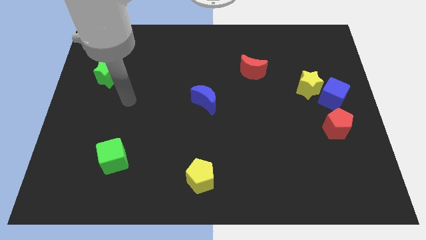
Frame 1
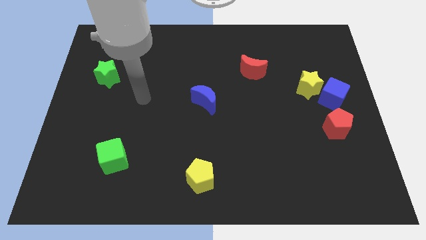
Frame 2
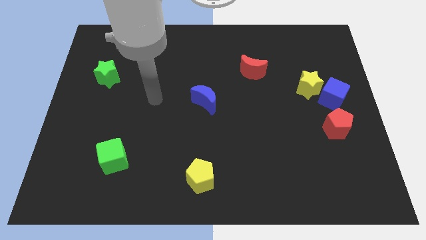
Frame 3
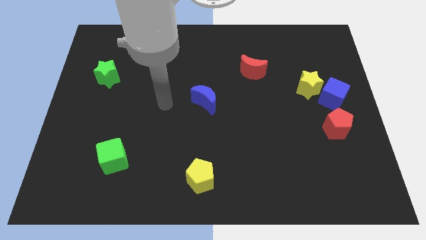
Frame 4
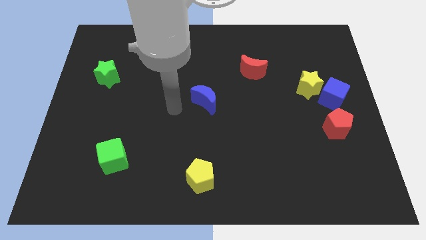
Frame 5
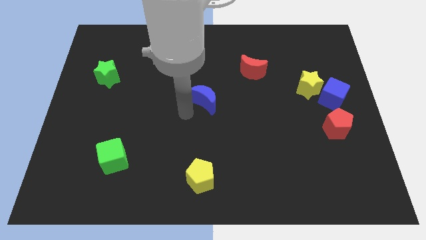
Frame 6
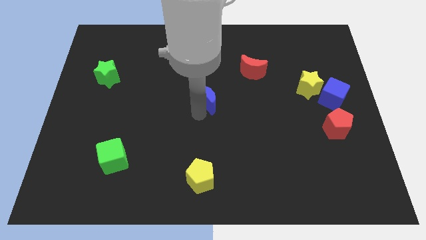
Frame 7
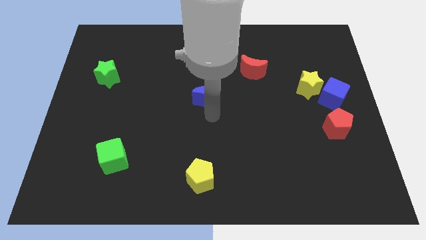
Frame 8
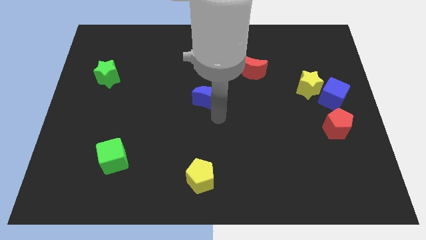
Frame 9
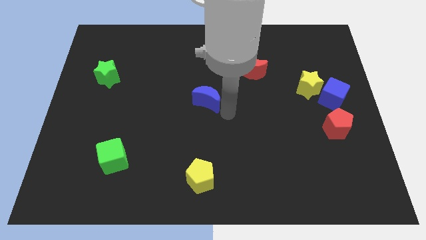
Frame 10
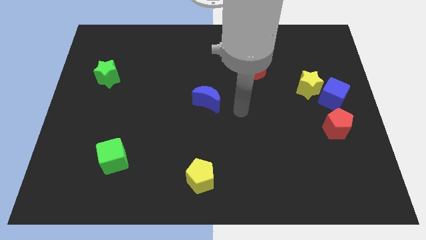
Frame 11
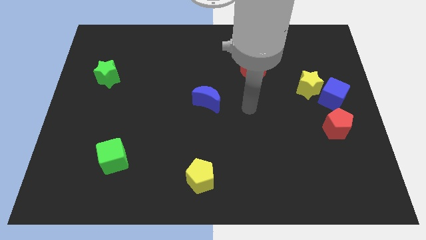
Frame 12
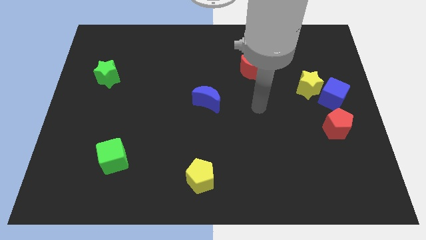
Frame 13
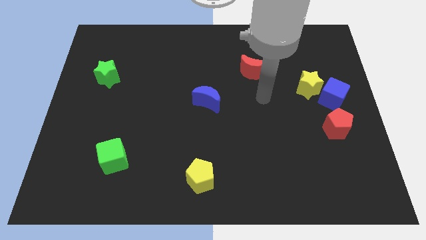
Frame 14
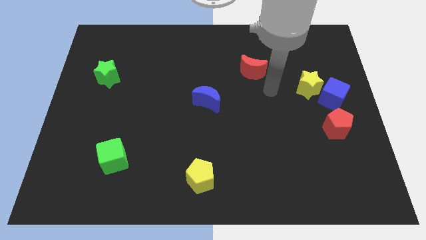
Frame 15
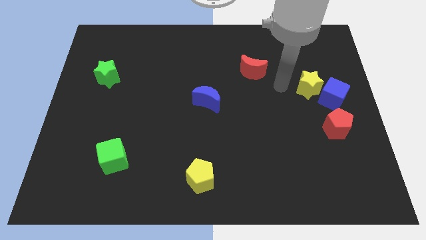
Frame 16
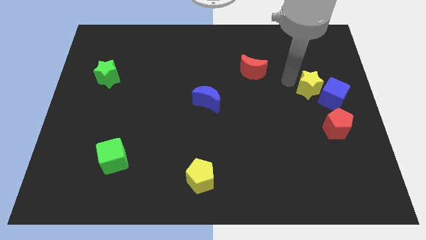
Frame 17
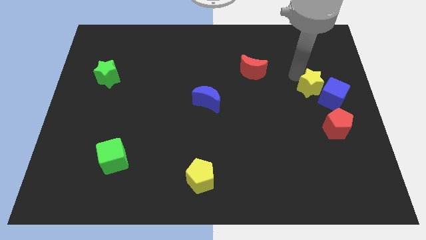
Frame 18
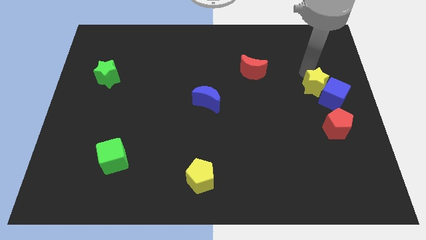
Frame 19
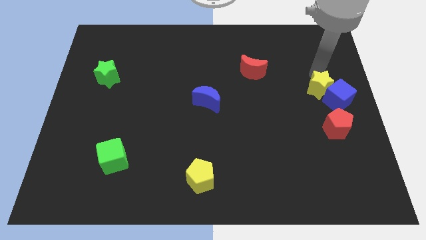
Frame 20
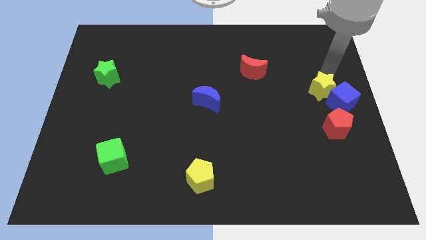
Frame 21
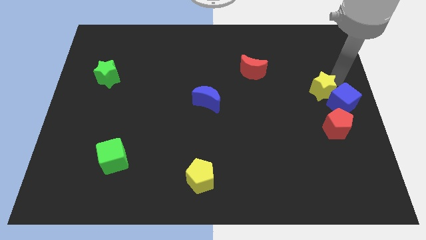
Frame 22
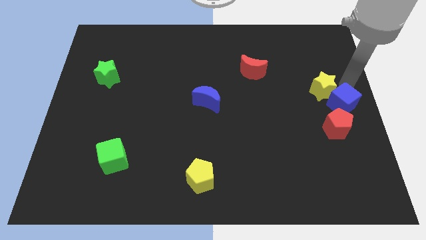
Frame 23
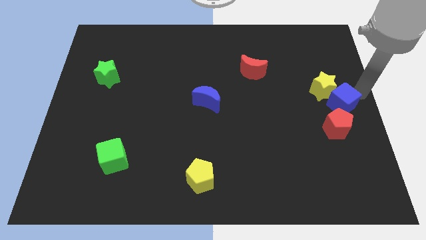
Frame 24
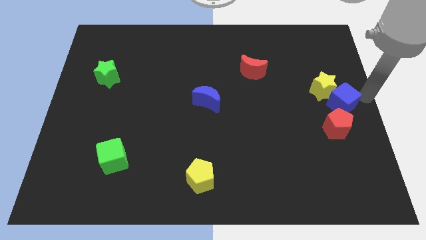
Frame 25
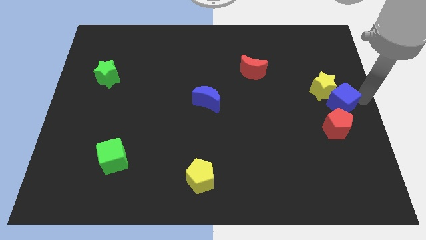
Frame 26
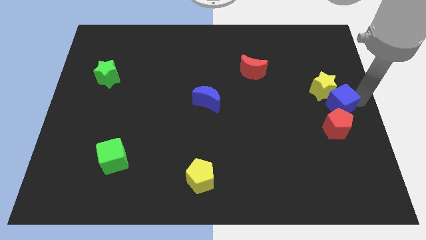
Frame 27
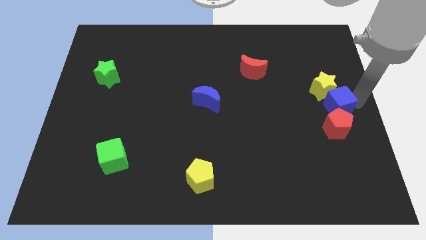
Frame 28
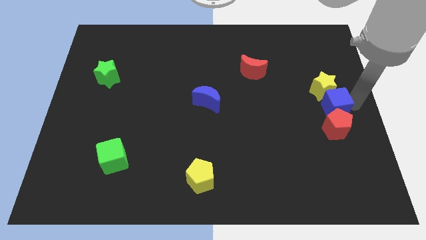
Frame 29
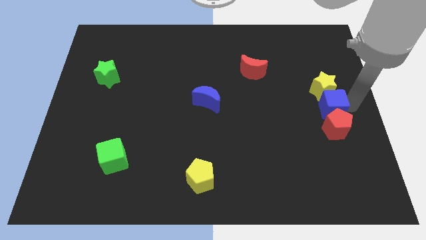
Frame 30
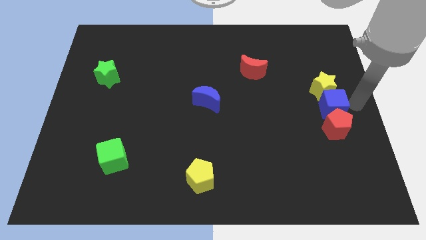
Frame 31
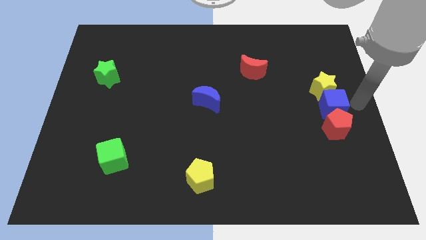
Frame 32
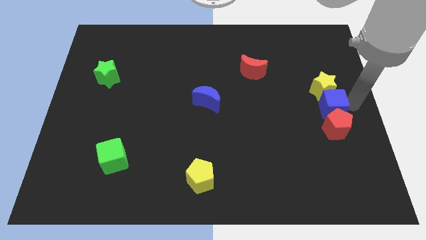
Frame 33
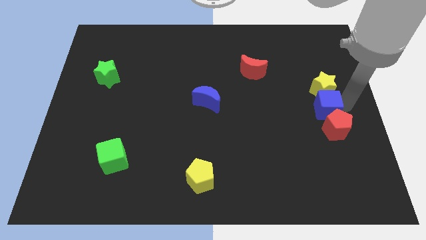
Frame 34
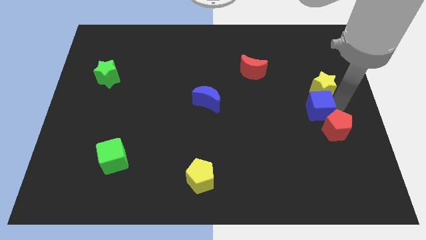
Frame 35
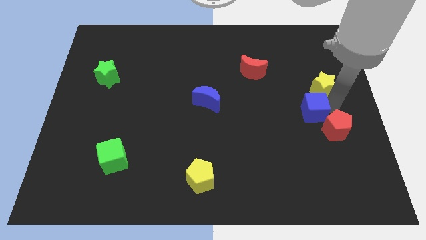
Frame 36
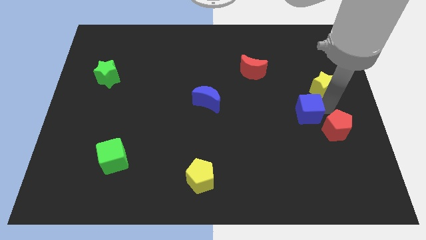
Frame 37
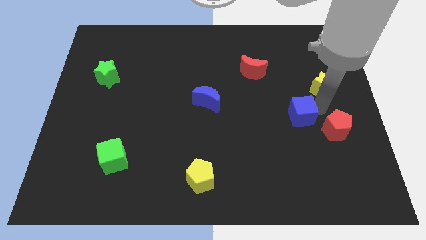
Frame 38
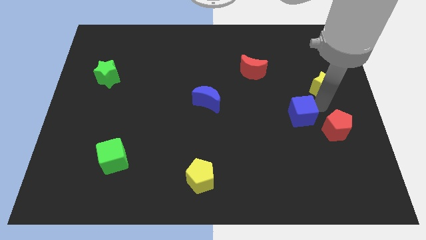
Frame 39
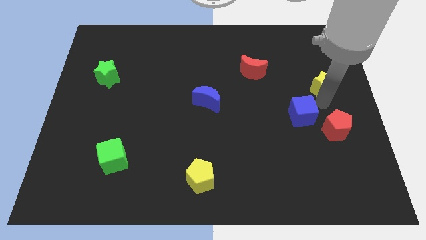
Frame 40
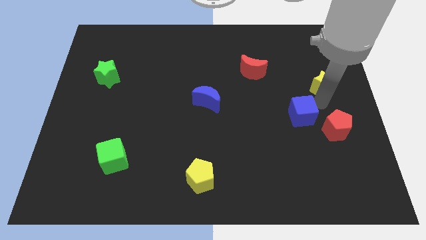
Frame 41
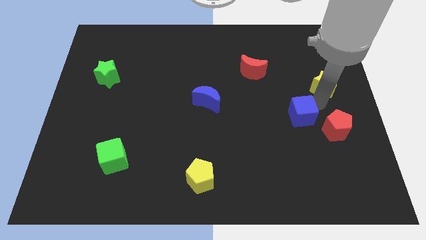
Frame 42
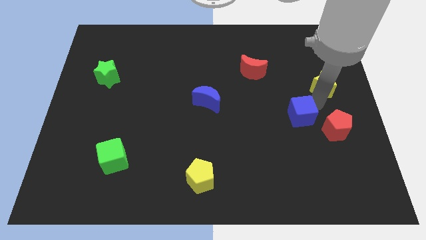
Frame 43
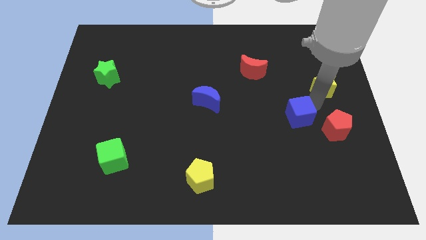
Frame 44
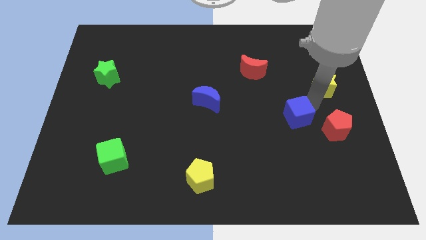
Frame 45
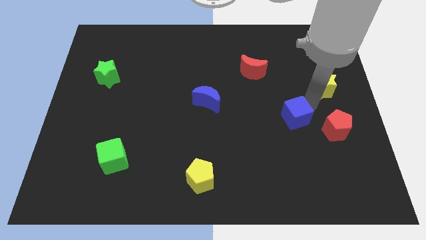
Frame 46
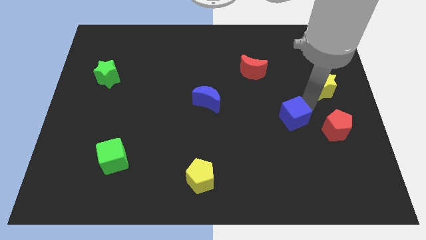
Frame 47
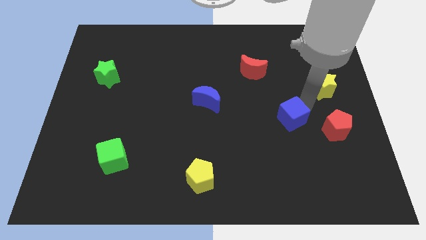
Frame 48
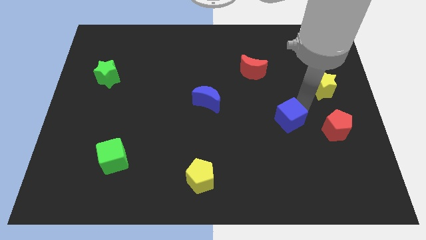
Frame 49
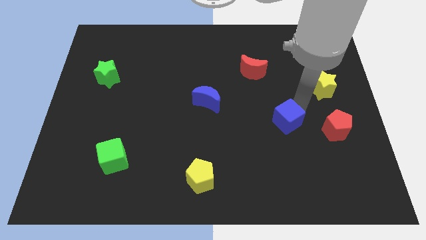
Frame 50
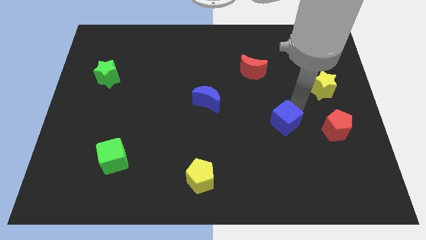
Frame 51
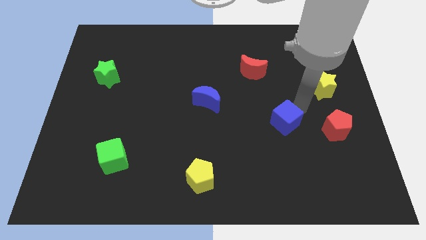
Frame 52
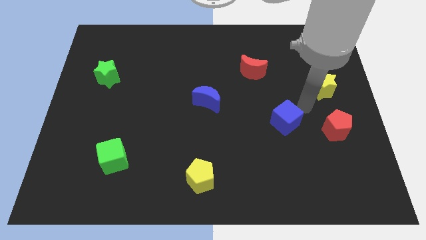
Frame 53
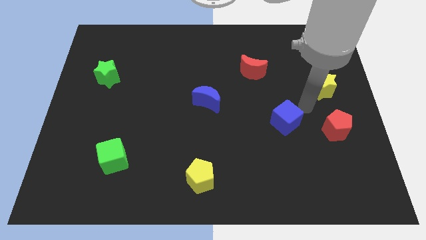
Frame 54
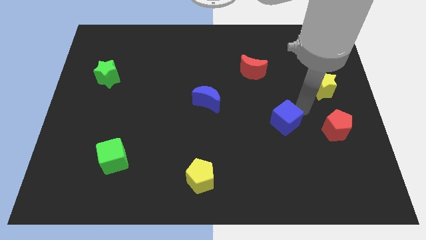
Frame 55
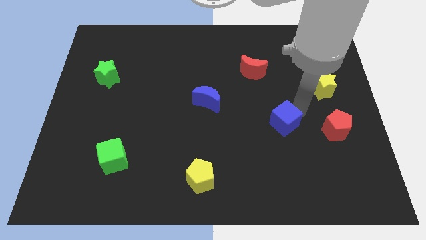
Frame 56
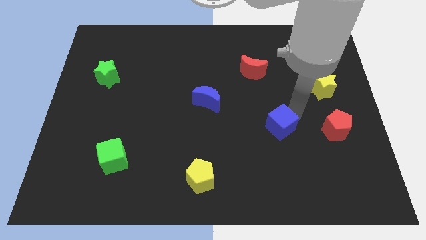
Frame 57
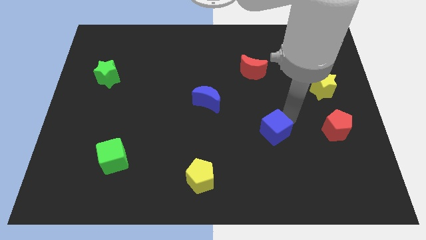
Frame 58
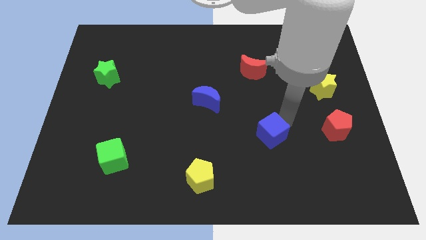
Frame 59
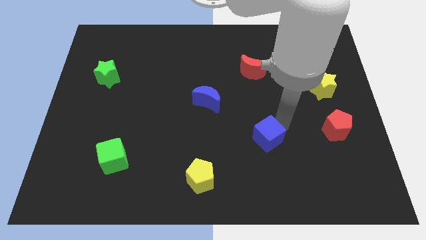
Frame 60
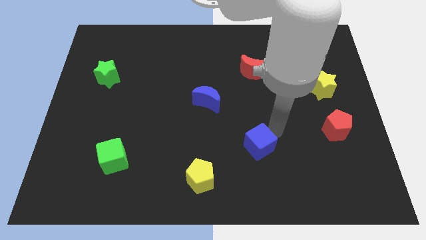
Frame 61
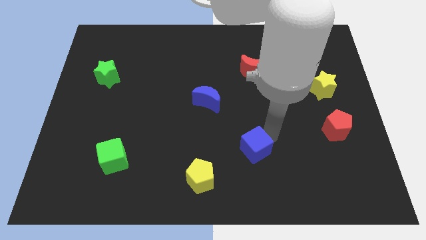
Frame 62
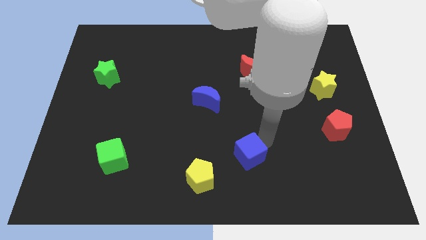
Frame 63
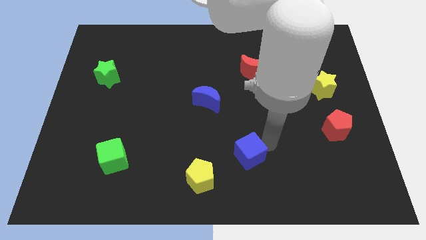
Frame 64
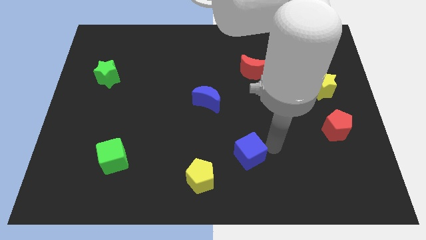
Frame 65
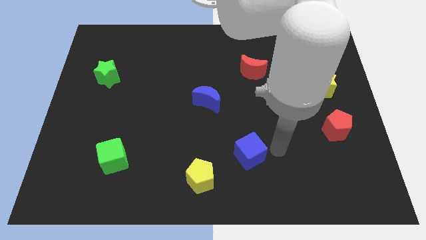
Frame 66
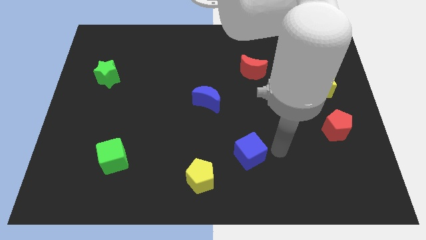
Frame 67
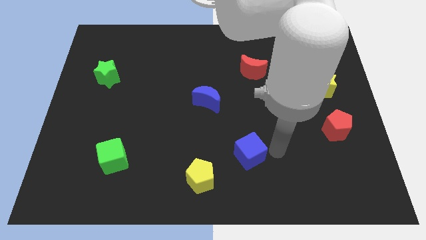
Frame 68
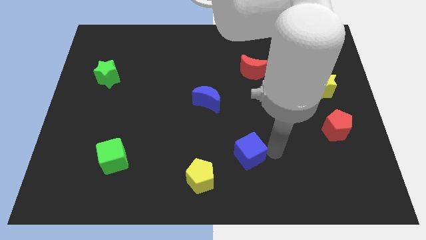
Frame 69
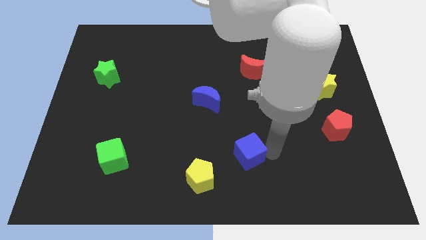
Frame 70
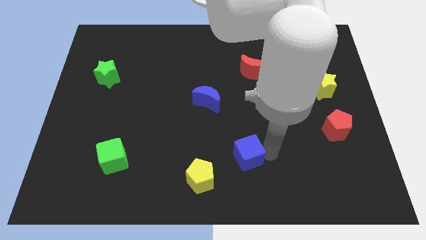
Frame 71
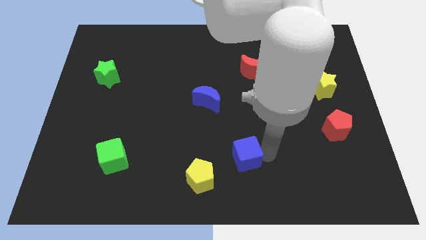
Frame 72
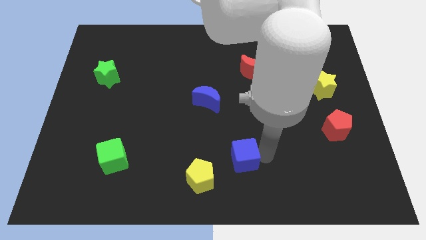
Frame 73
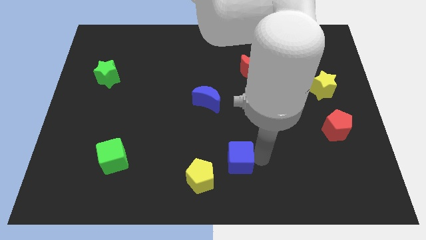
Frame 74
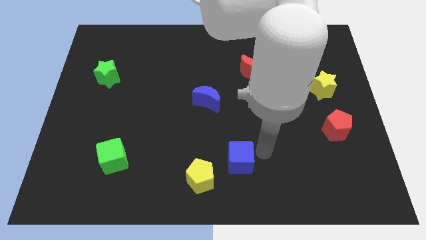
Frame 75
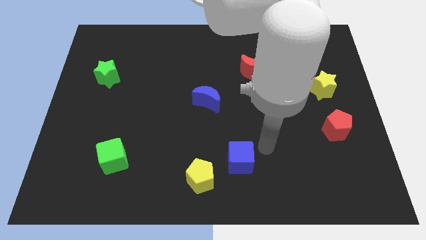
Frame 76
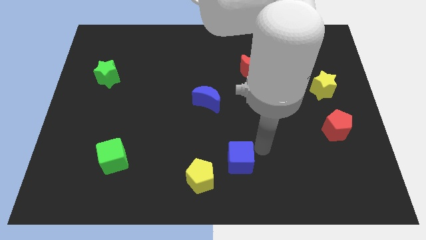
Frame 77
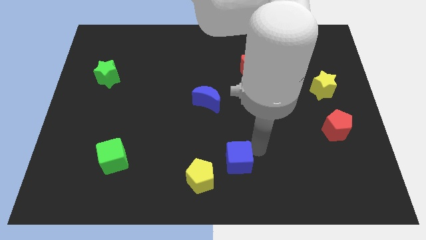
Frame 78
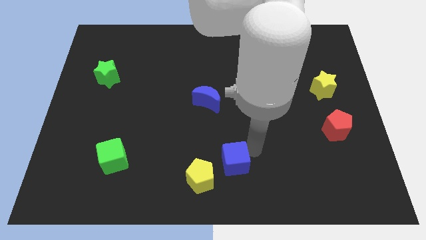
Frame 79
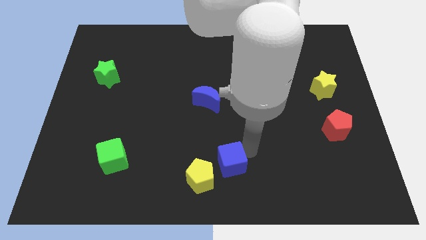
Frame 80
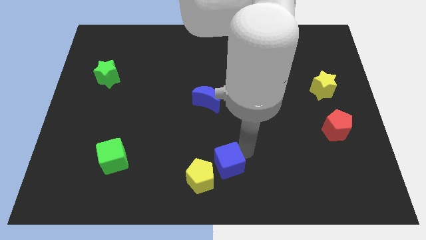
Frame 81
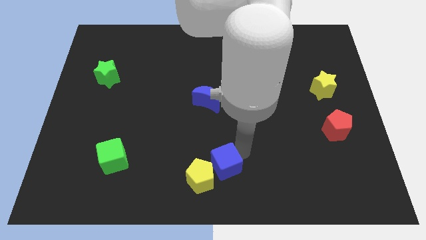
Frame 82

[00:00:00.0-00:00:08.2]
move the blue cube to the yellow pentagon
